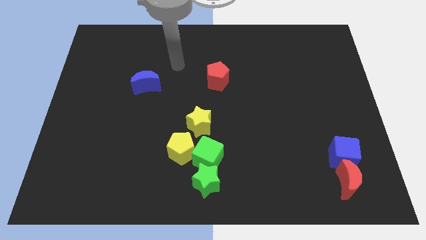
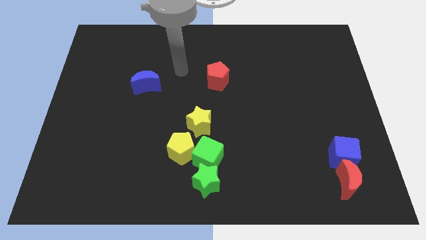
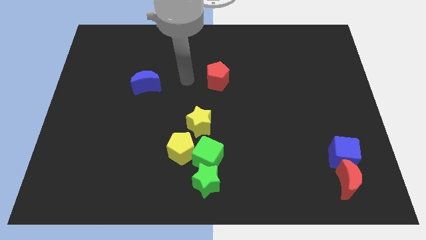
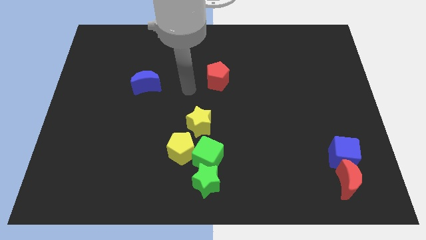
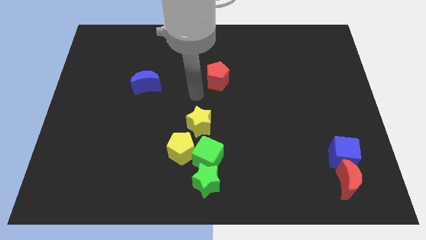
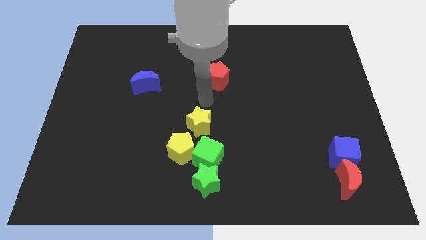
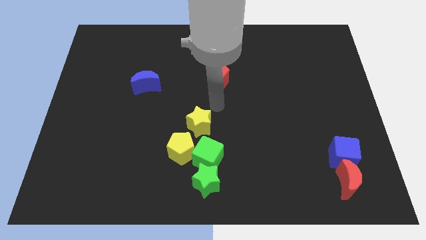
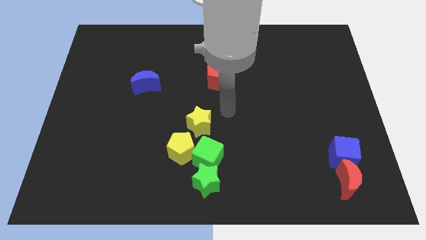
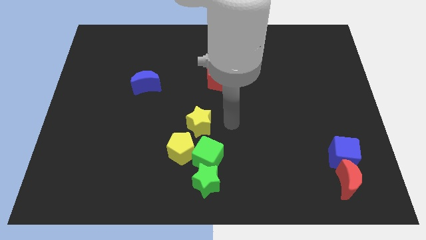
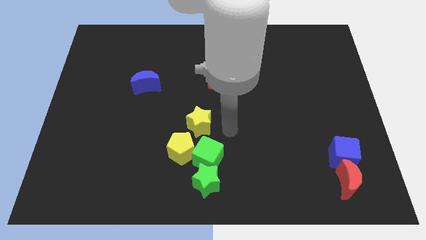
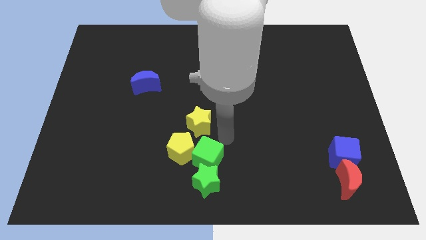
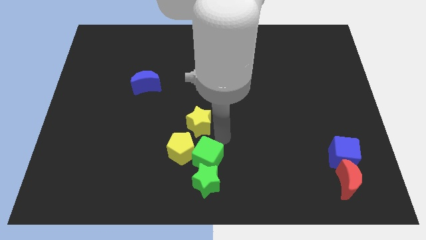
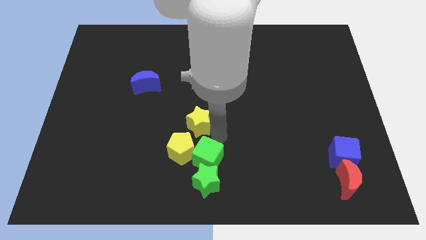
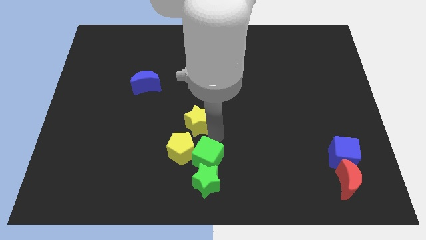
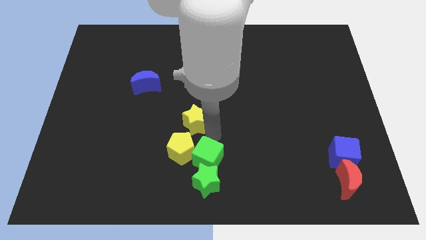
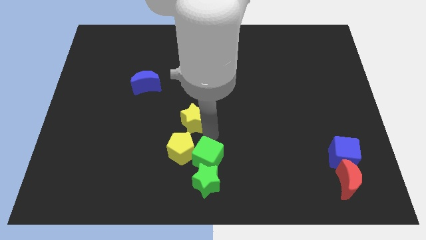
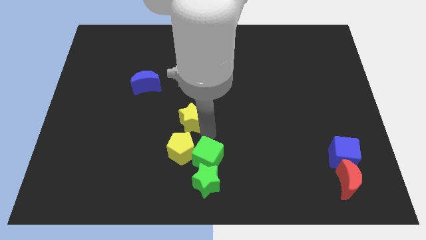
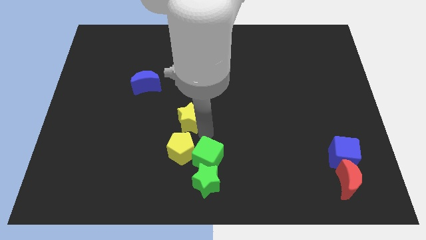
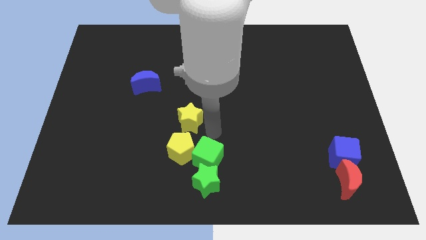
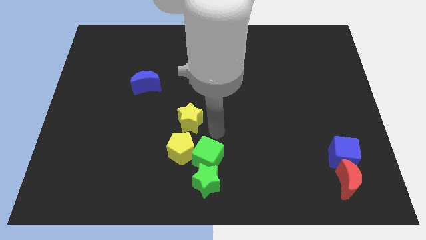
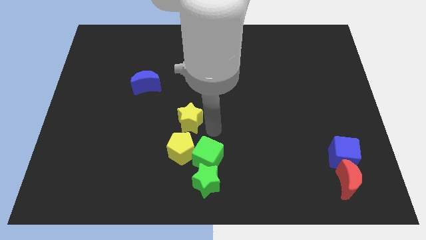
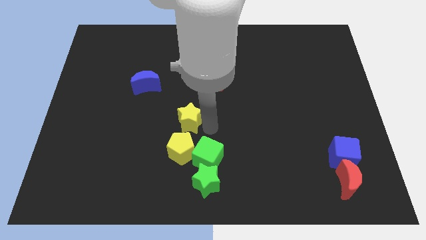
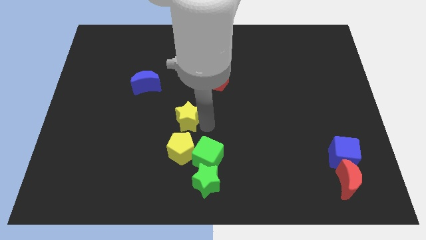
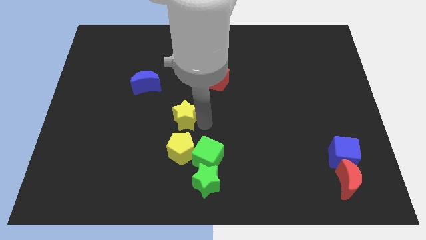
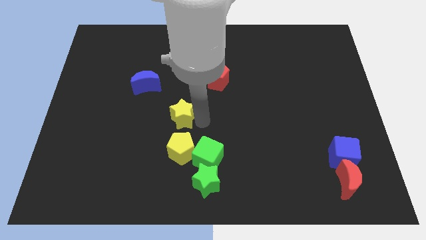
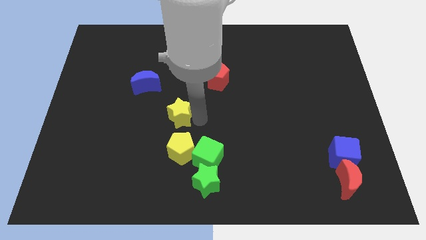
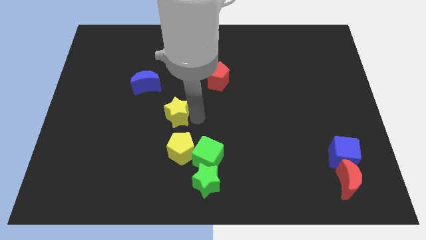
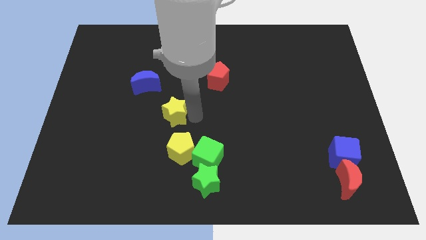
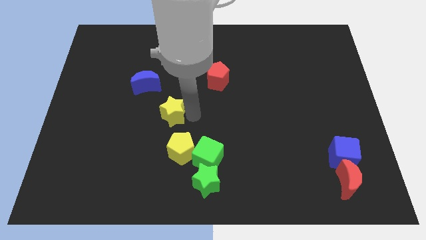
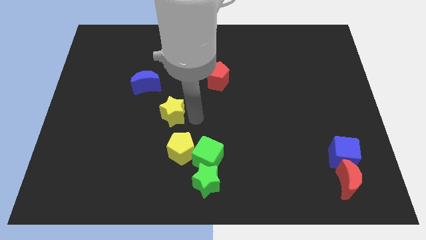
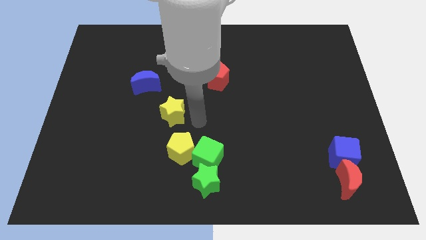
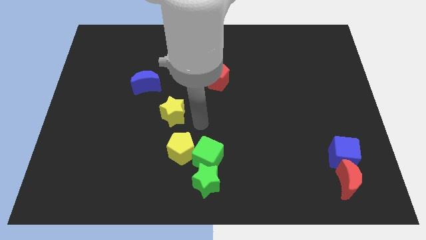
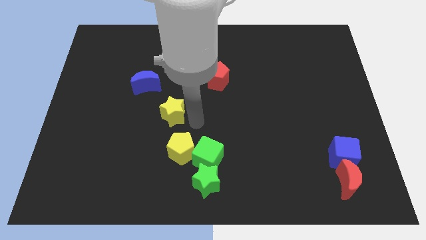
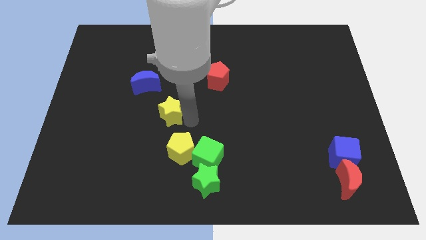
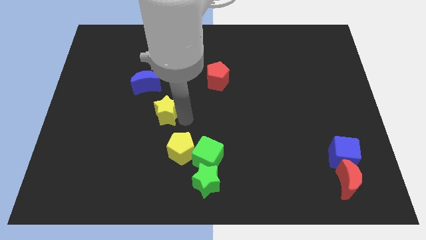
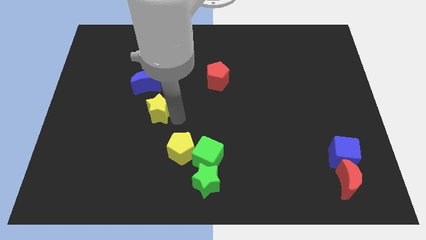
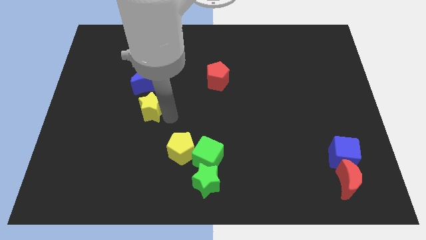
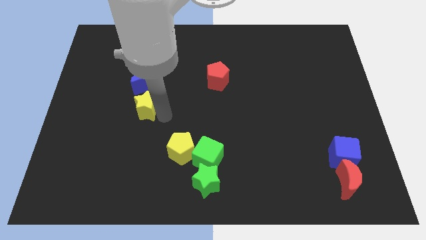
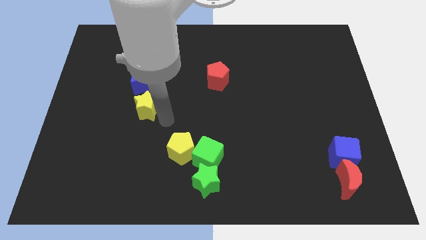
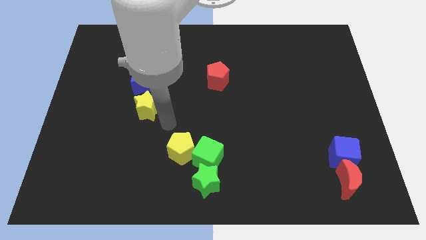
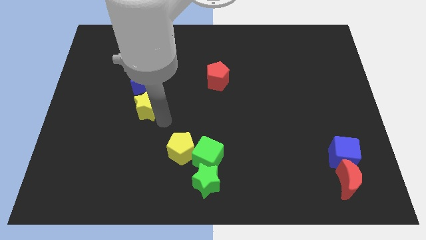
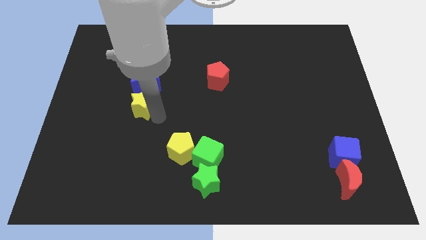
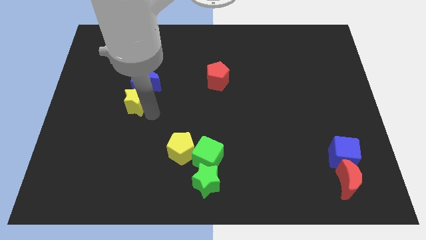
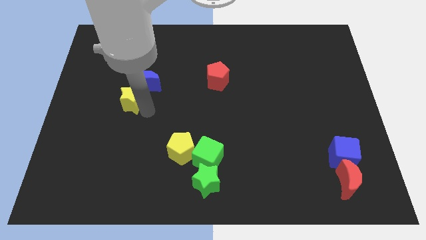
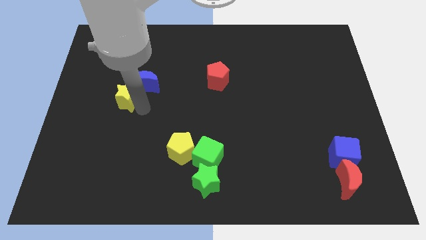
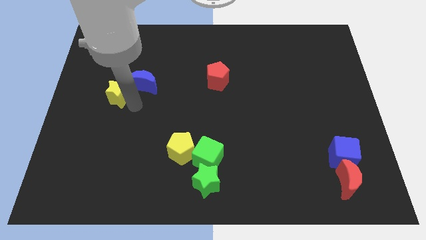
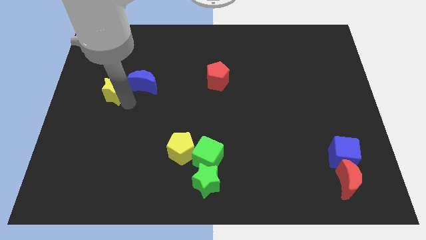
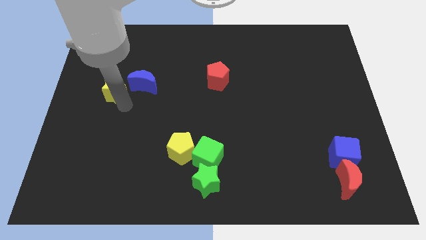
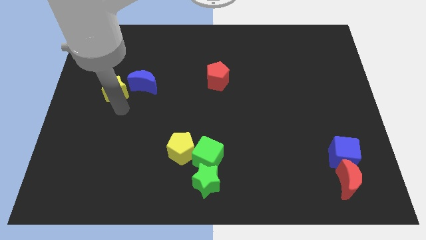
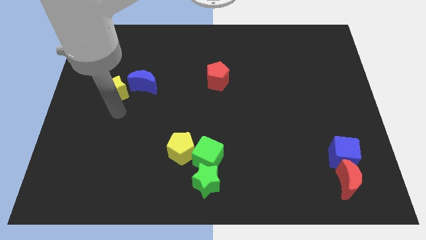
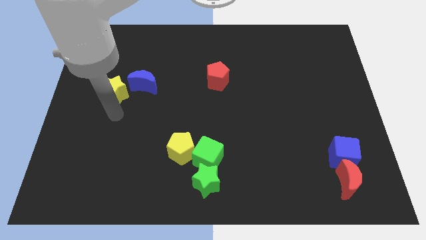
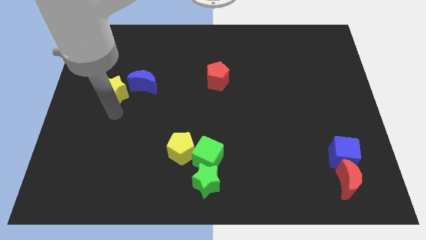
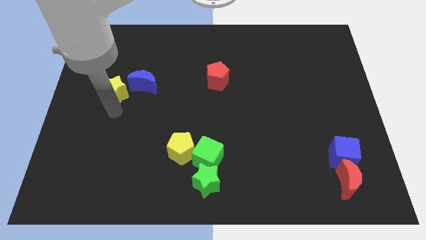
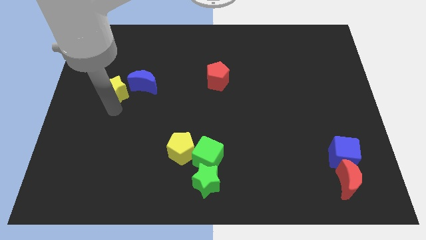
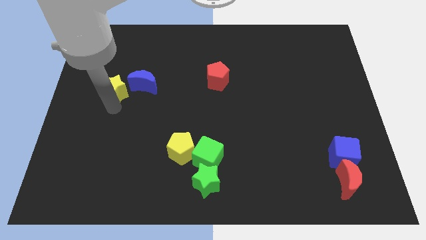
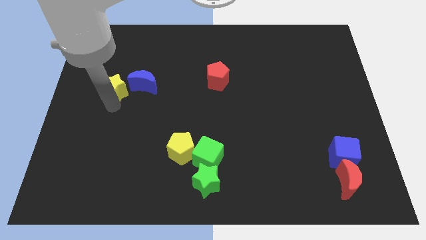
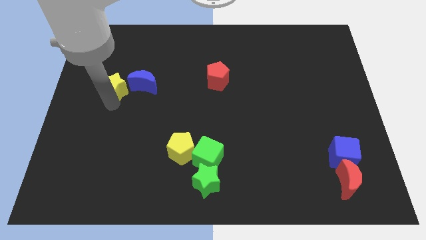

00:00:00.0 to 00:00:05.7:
push the yellow star upwards and then to the left

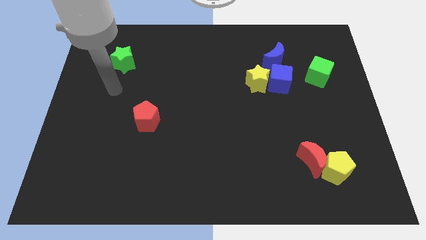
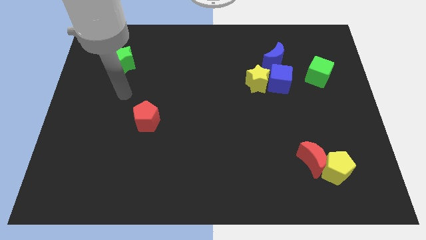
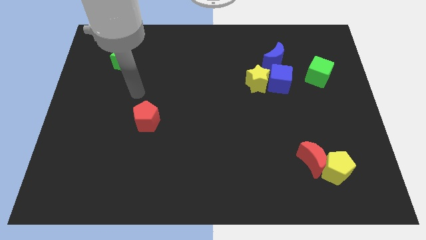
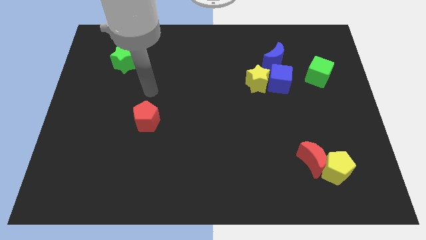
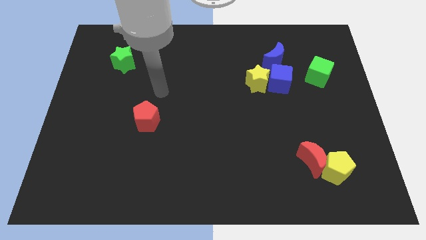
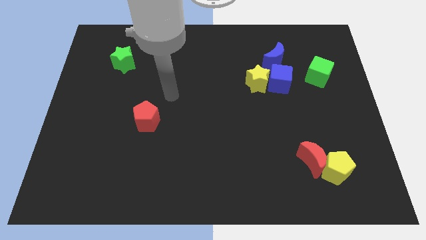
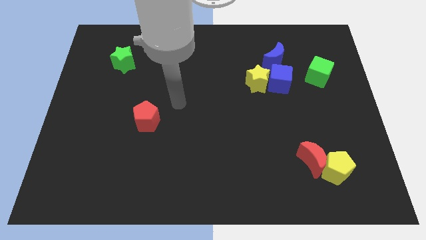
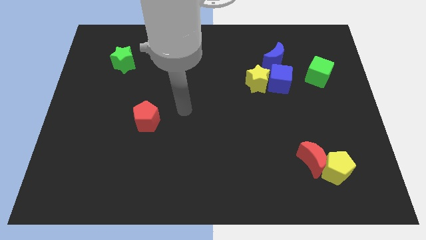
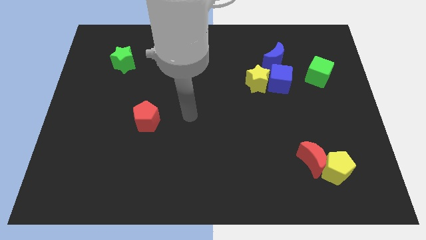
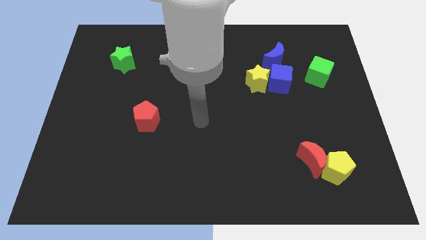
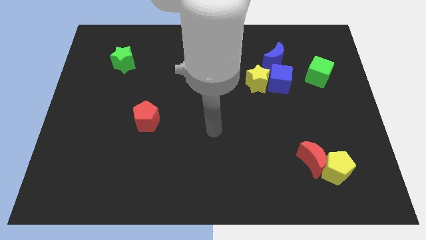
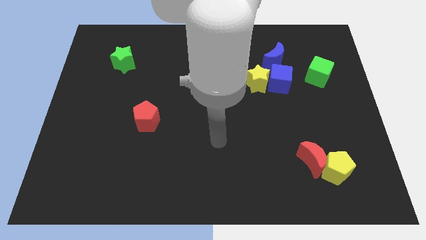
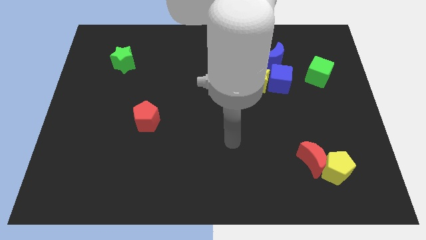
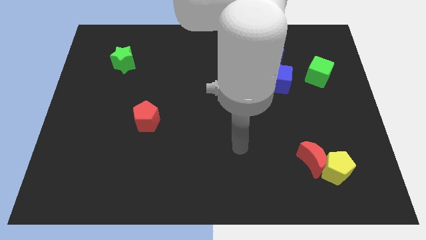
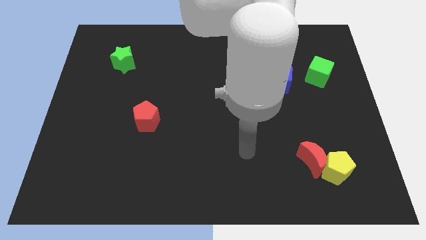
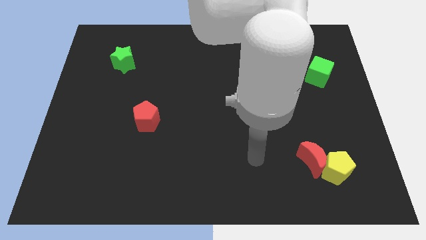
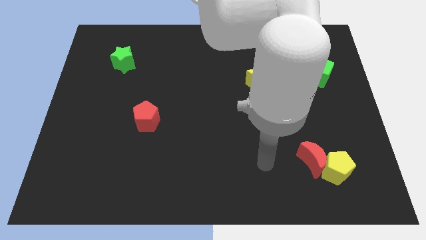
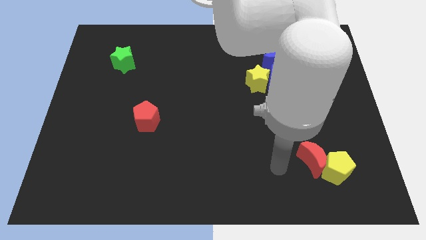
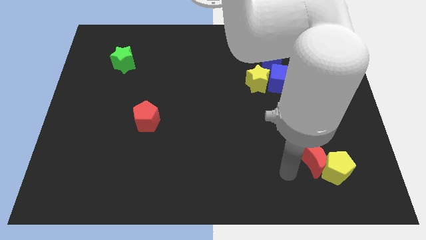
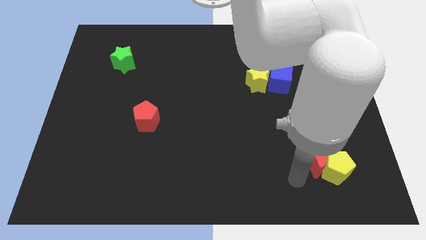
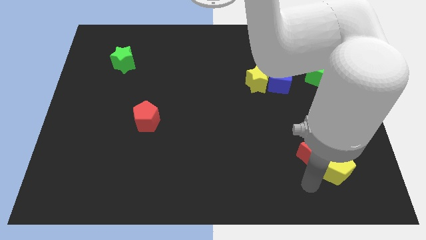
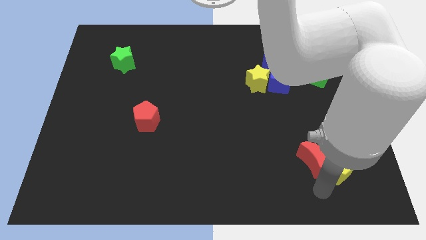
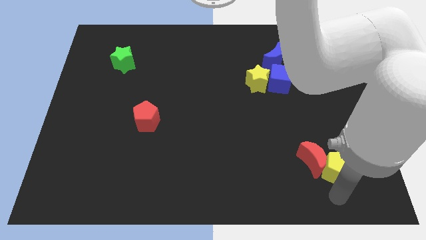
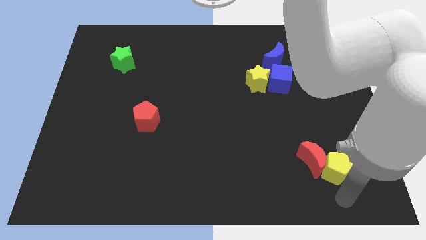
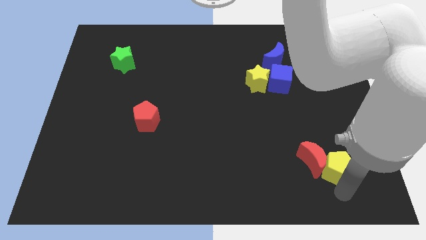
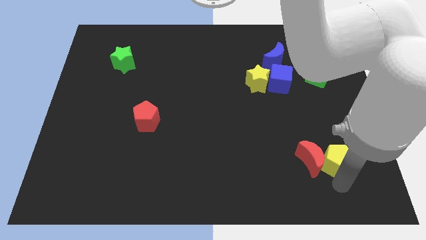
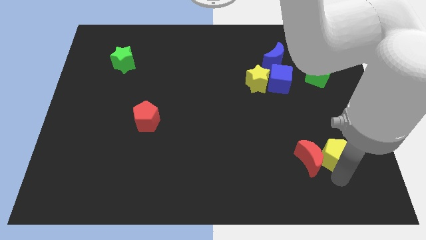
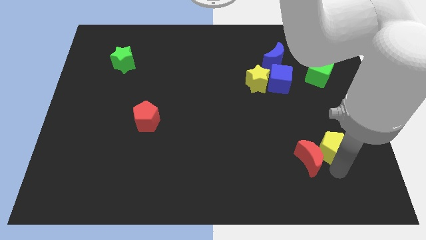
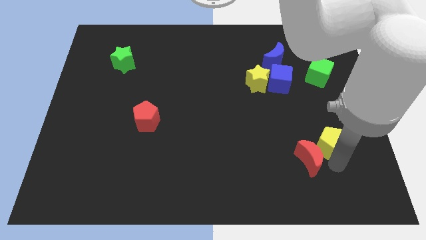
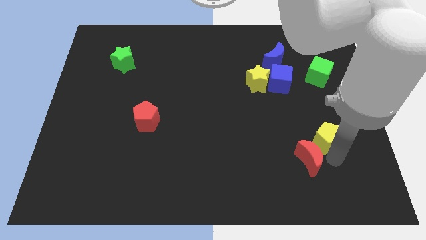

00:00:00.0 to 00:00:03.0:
slightly move the yellow pentagon upwards
